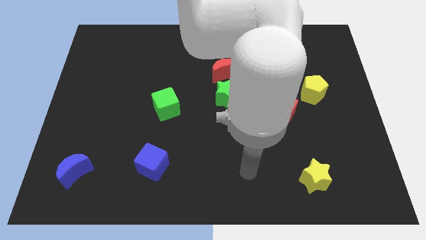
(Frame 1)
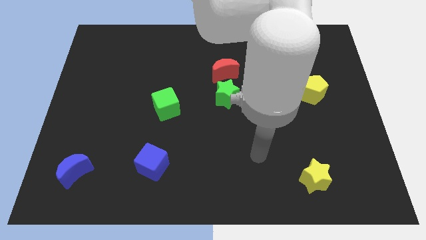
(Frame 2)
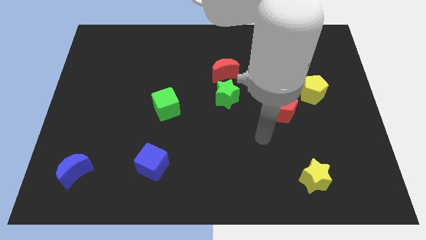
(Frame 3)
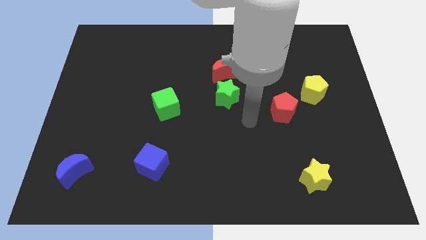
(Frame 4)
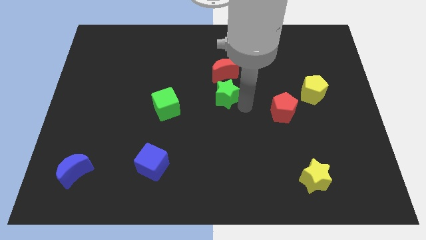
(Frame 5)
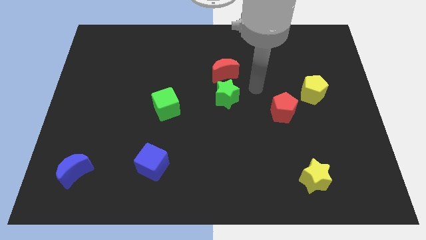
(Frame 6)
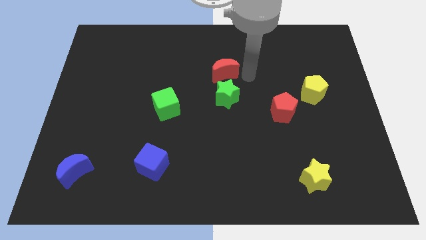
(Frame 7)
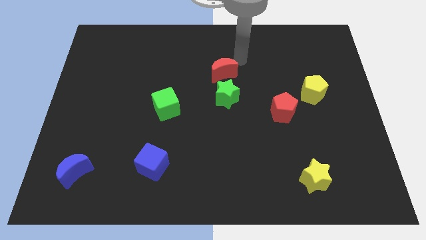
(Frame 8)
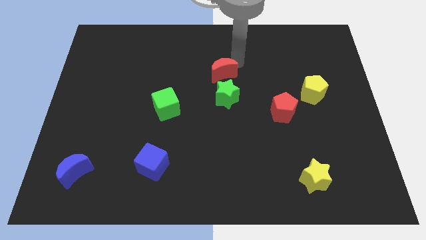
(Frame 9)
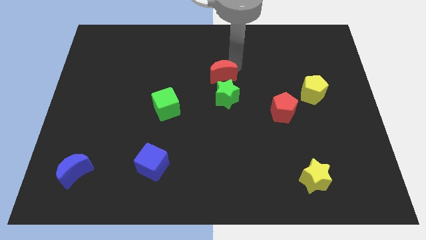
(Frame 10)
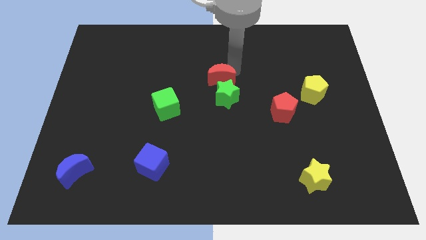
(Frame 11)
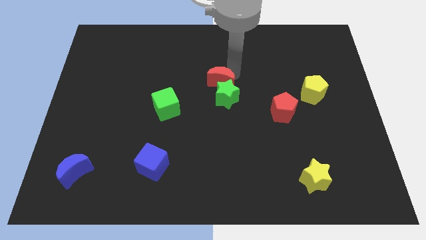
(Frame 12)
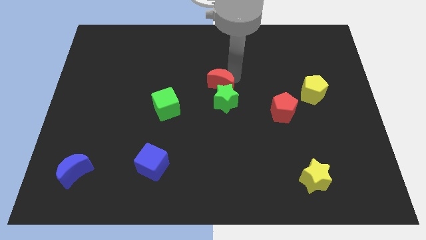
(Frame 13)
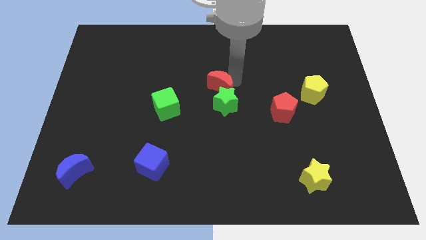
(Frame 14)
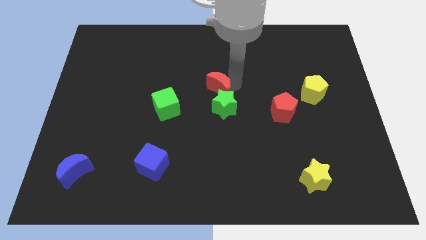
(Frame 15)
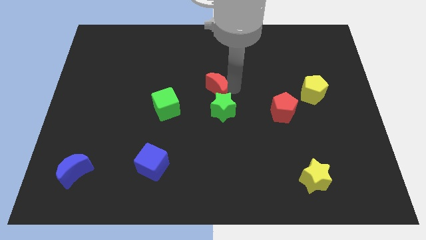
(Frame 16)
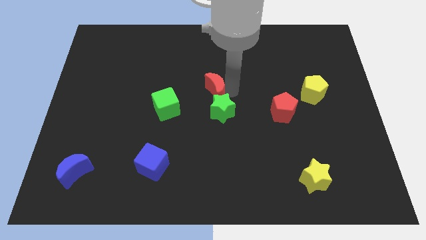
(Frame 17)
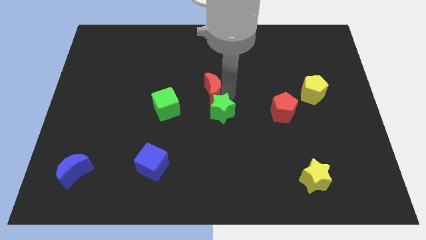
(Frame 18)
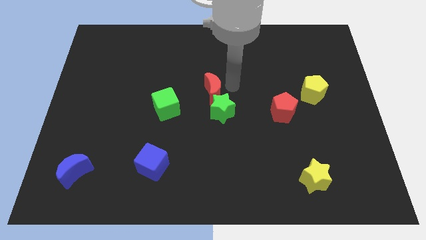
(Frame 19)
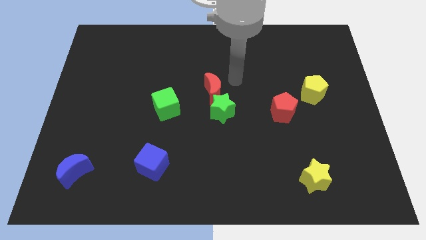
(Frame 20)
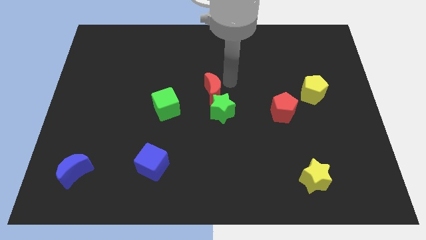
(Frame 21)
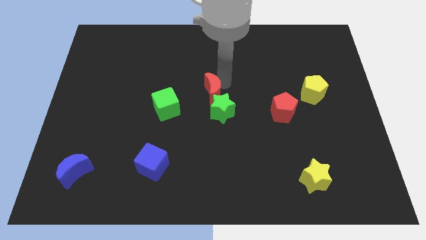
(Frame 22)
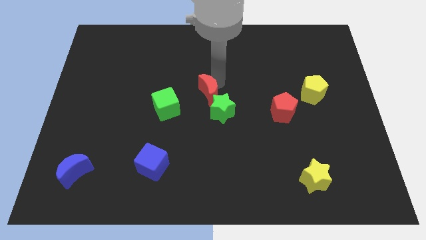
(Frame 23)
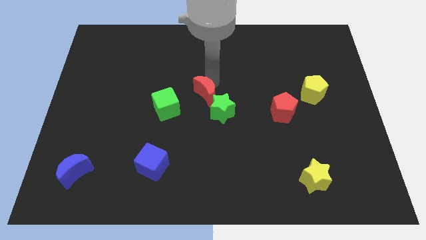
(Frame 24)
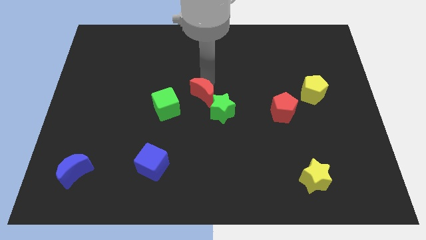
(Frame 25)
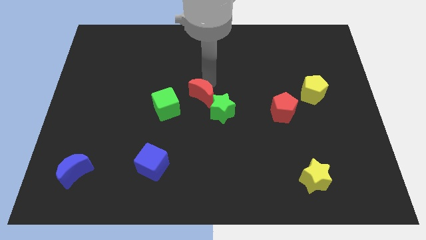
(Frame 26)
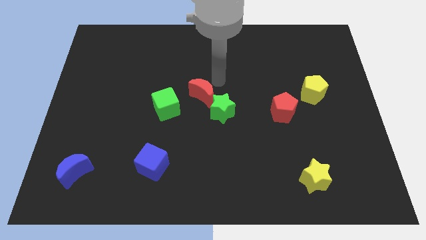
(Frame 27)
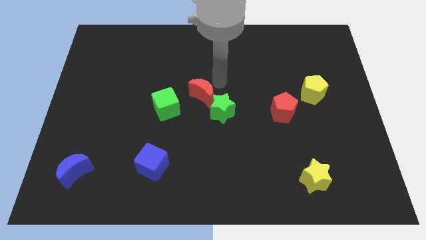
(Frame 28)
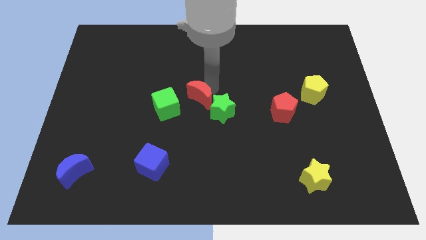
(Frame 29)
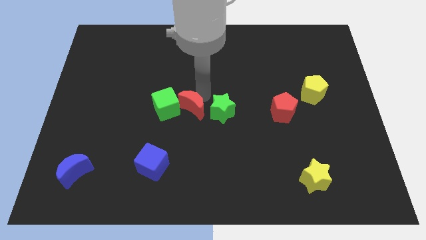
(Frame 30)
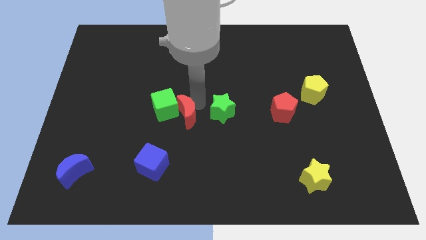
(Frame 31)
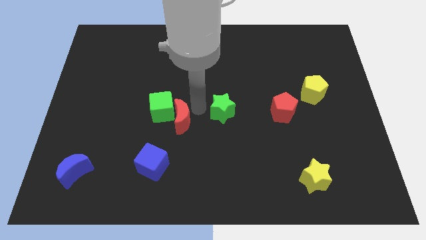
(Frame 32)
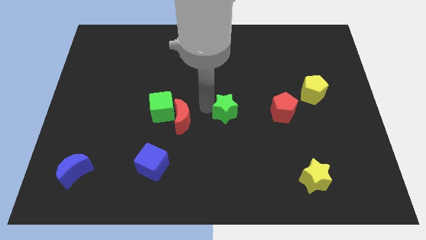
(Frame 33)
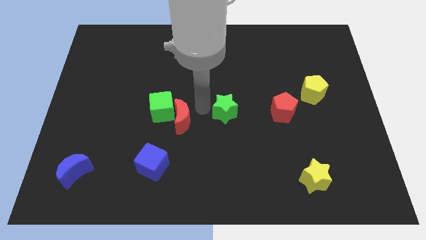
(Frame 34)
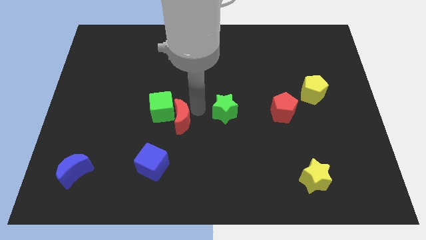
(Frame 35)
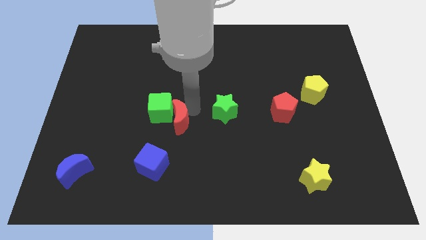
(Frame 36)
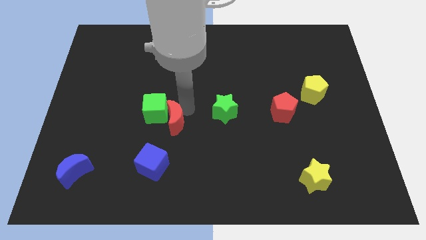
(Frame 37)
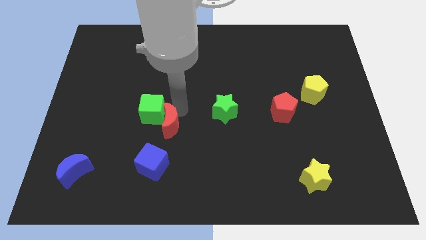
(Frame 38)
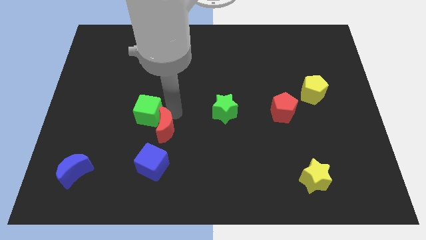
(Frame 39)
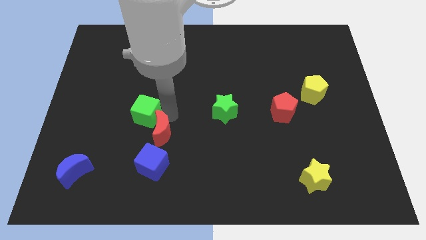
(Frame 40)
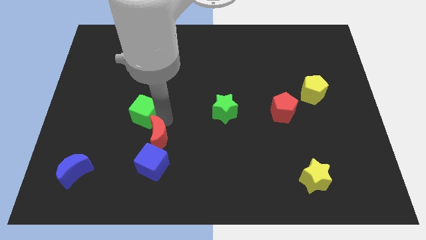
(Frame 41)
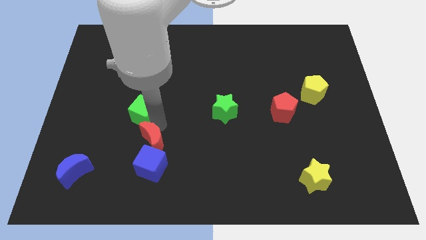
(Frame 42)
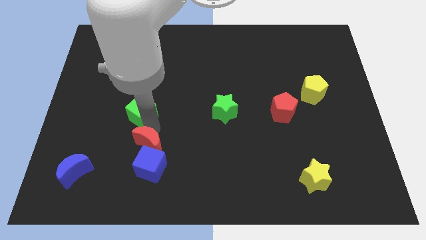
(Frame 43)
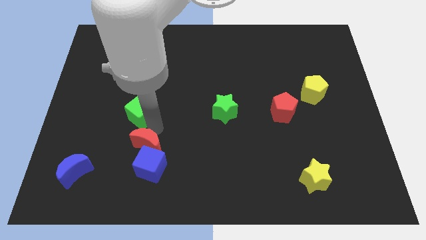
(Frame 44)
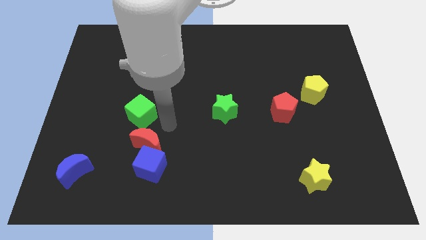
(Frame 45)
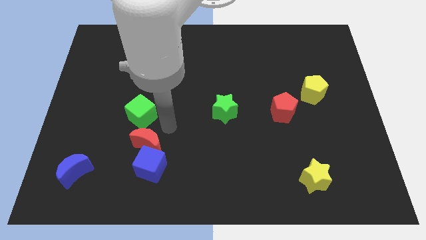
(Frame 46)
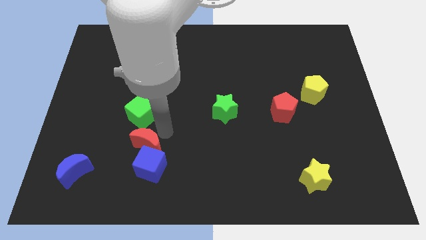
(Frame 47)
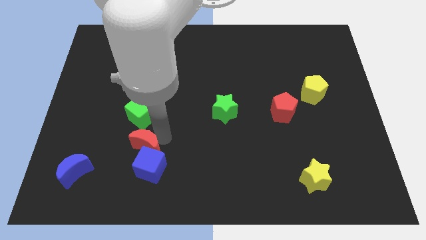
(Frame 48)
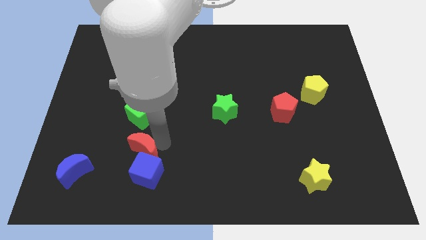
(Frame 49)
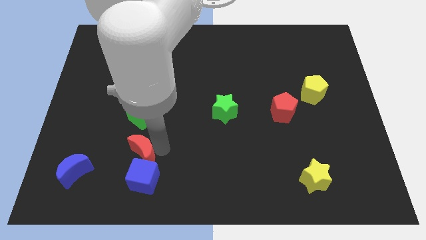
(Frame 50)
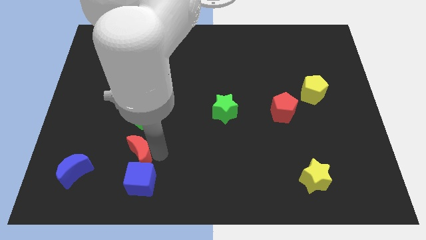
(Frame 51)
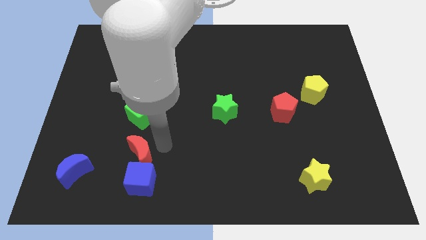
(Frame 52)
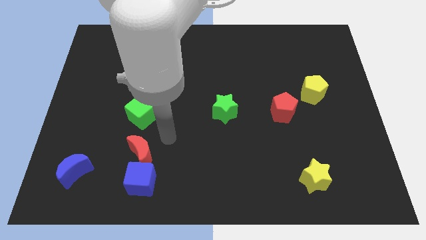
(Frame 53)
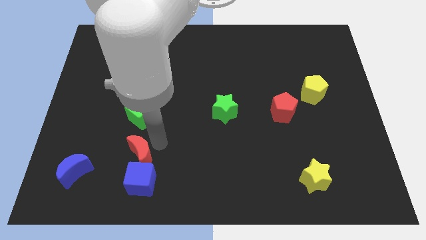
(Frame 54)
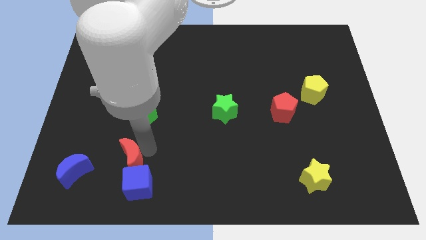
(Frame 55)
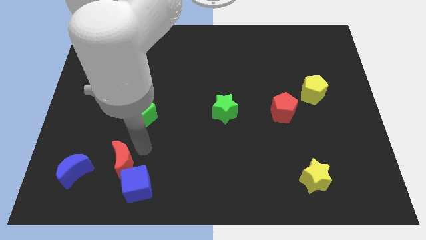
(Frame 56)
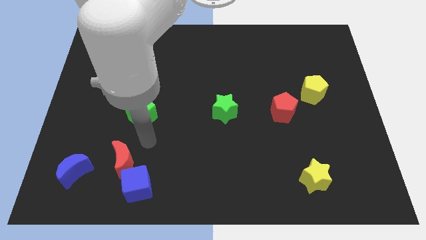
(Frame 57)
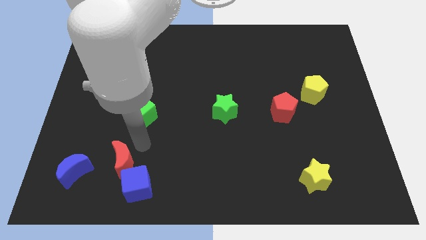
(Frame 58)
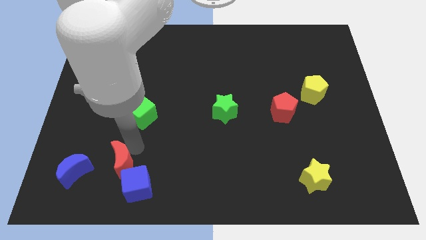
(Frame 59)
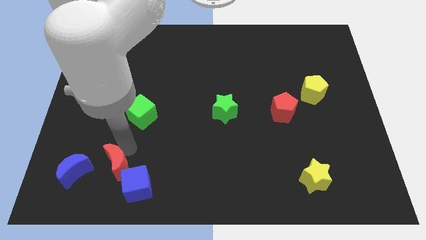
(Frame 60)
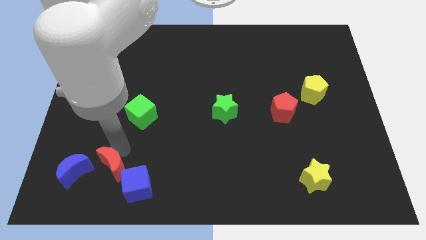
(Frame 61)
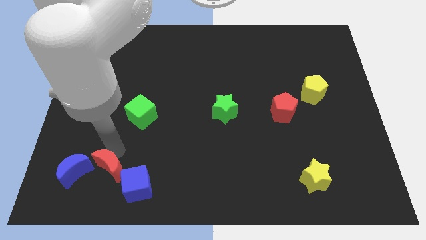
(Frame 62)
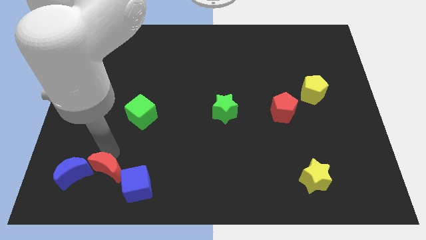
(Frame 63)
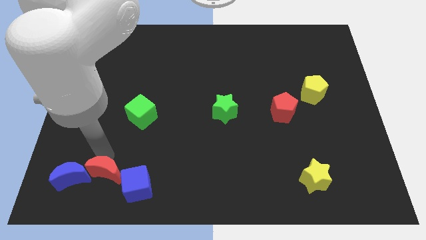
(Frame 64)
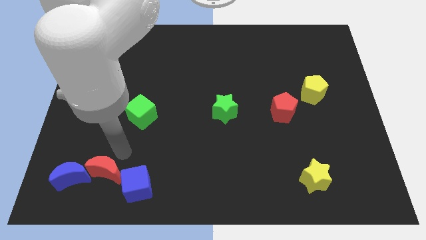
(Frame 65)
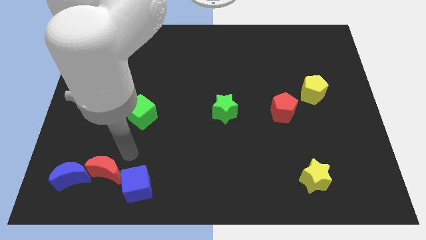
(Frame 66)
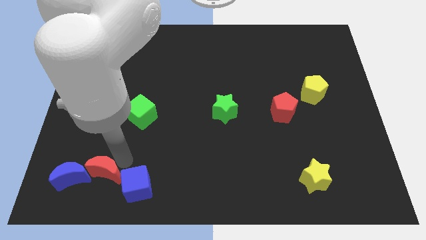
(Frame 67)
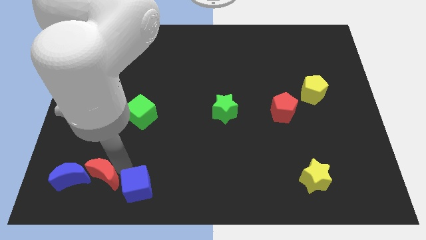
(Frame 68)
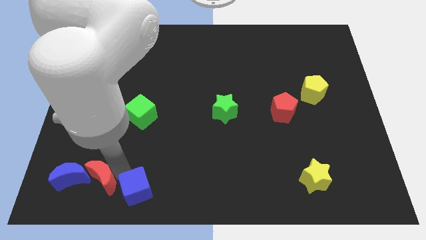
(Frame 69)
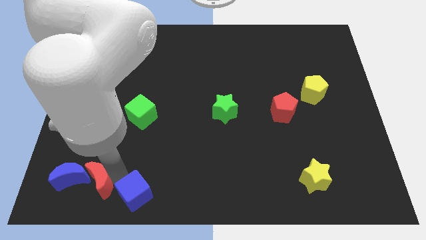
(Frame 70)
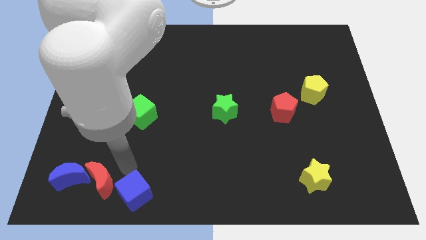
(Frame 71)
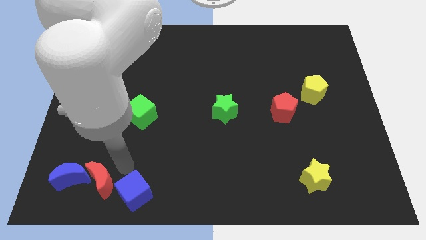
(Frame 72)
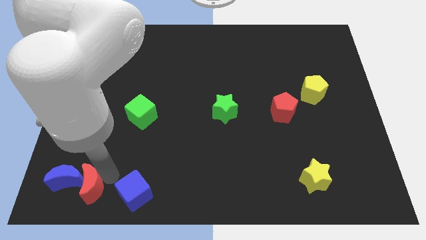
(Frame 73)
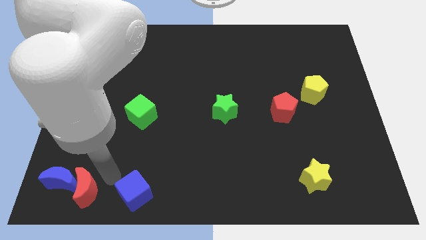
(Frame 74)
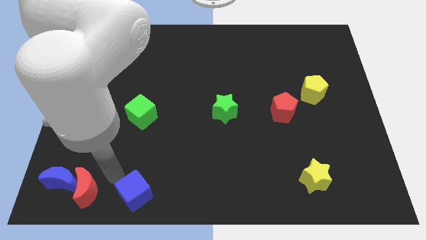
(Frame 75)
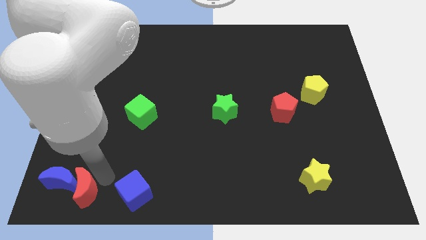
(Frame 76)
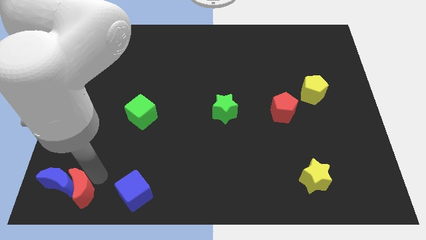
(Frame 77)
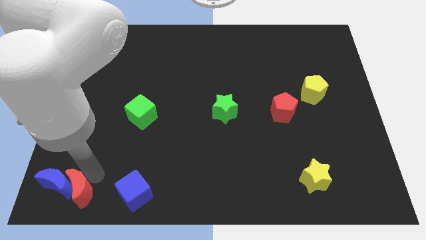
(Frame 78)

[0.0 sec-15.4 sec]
push the red moon to the bottom left corner
